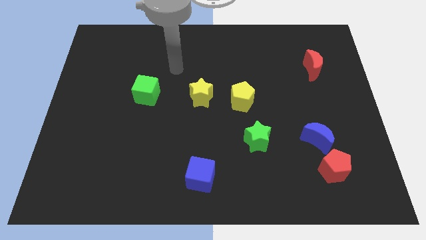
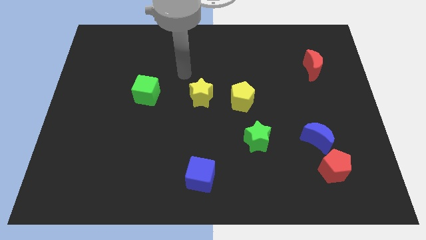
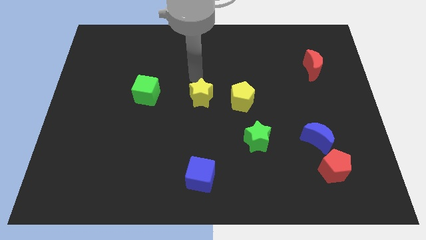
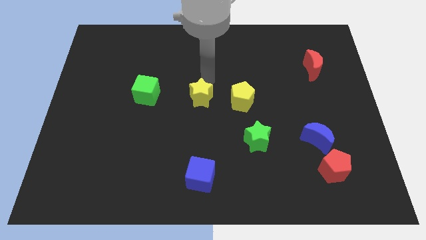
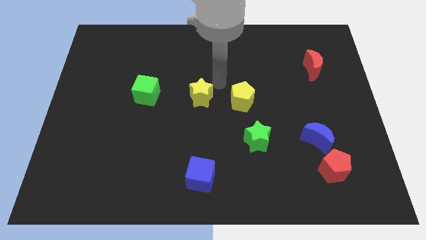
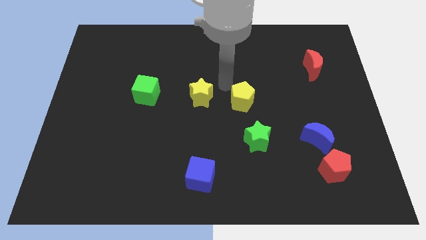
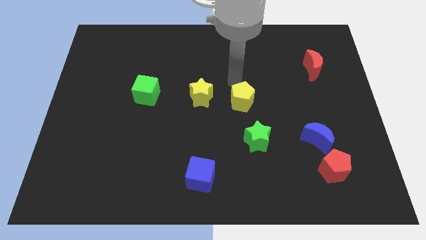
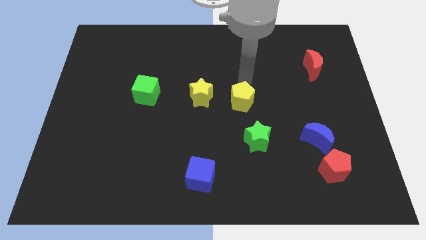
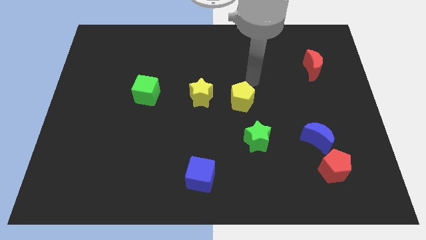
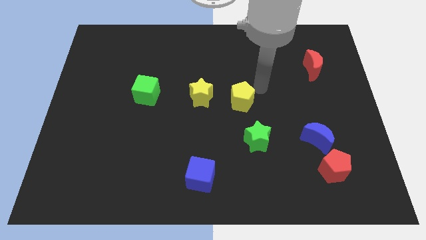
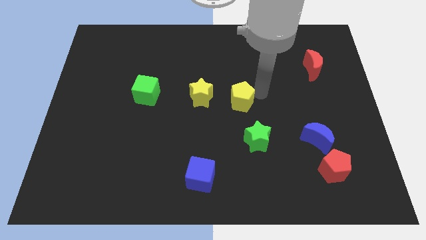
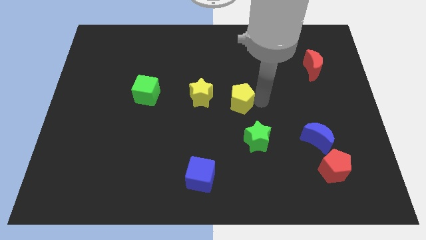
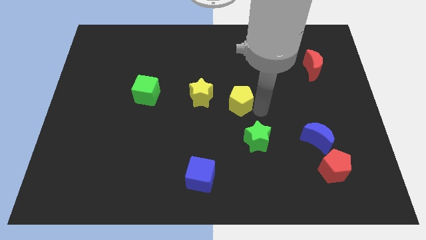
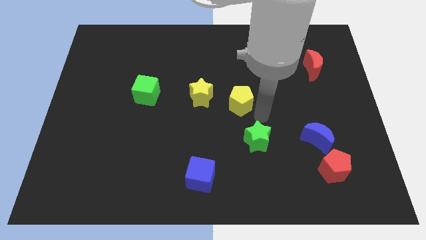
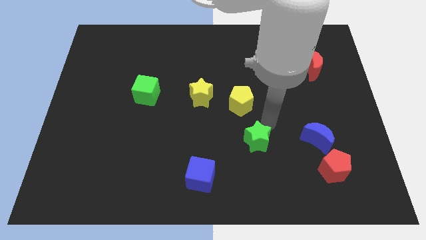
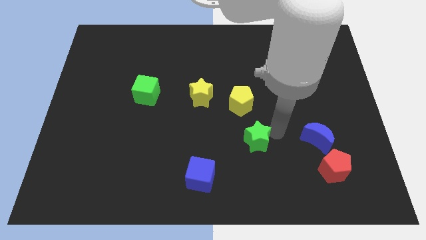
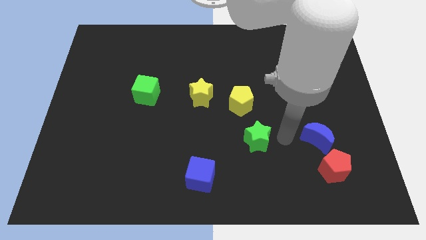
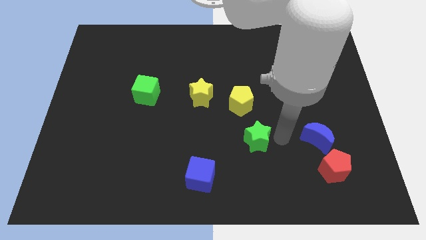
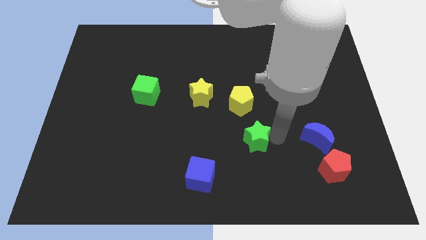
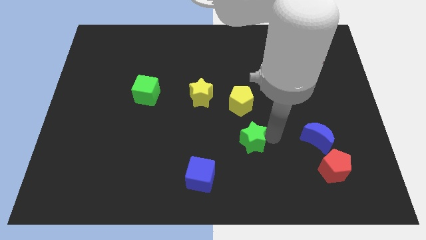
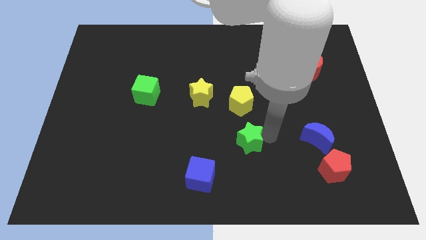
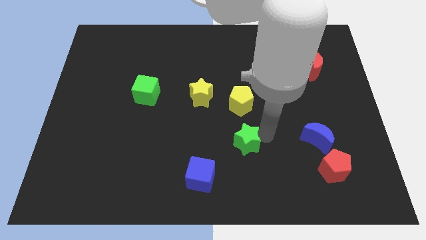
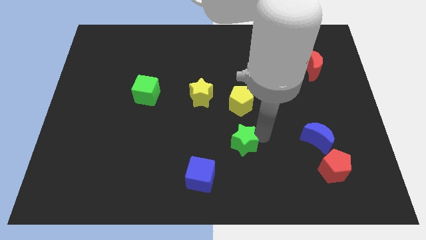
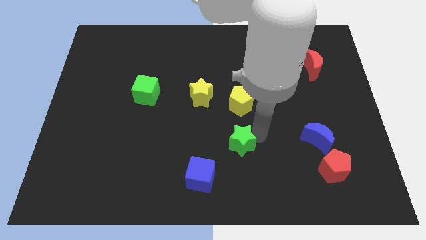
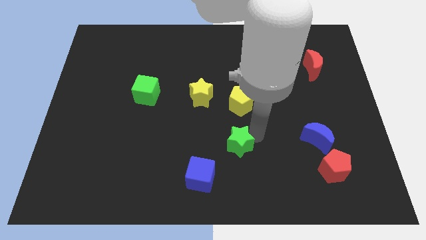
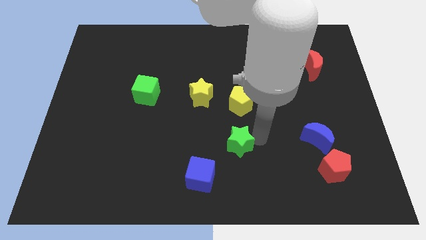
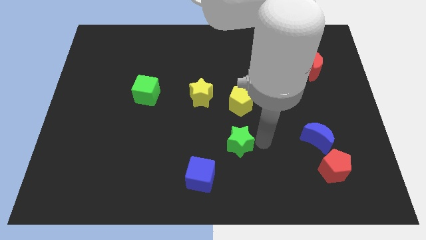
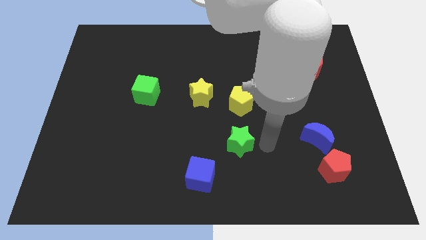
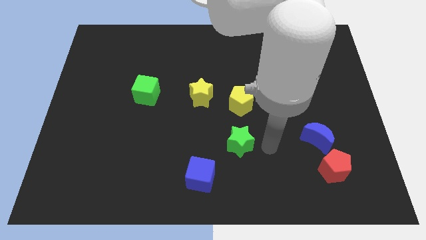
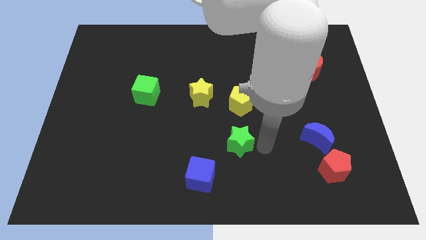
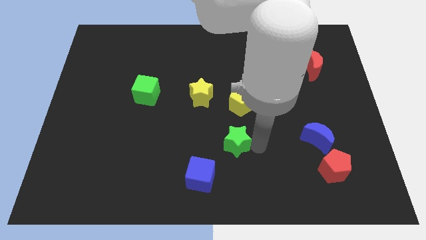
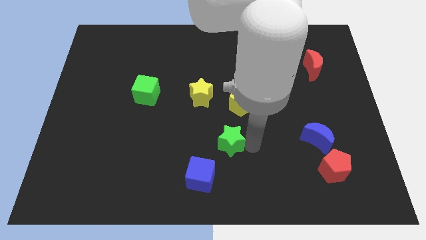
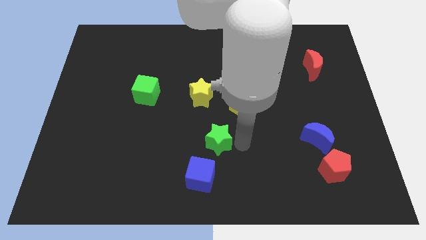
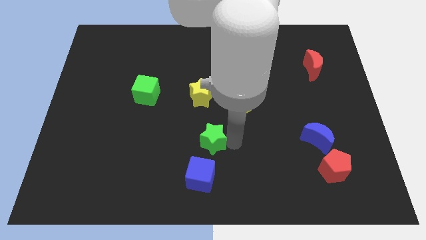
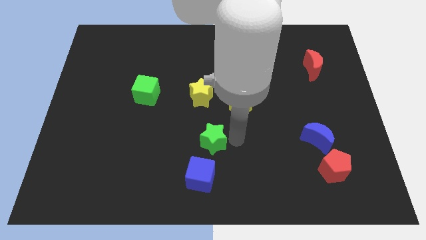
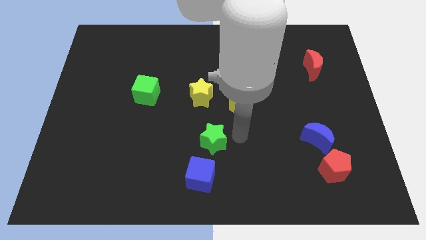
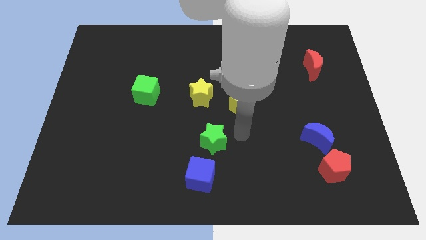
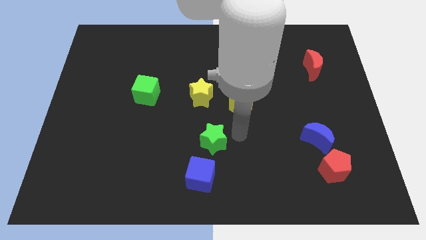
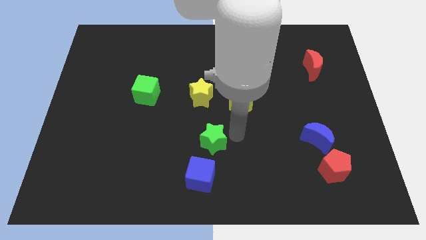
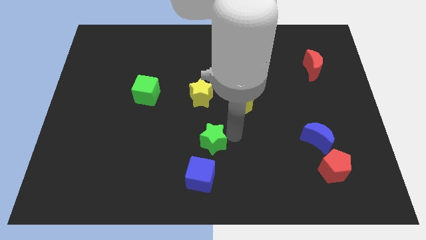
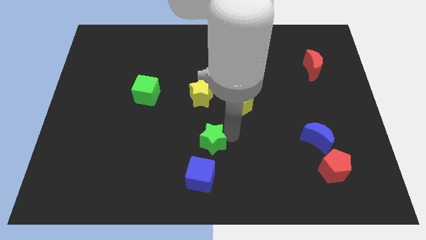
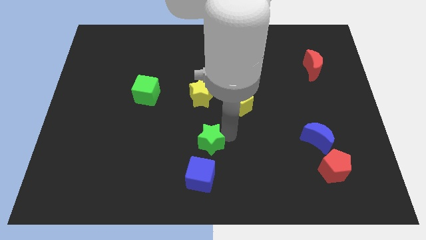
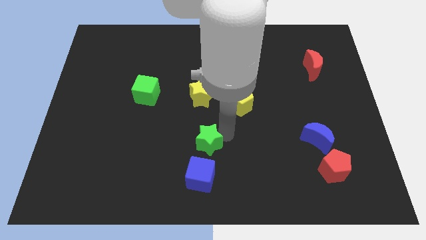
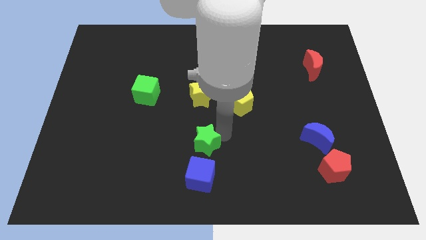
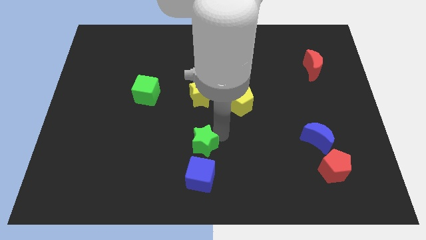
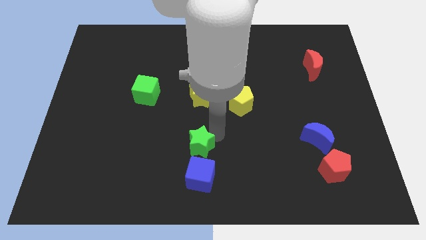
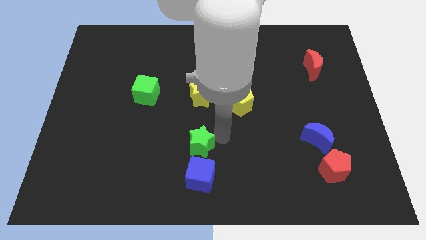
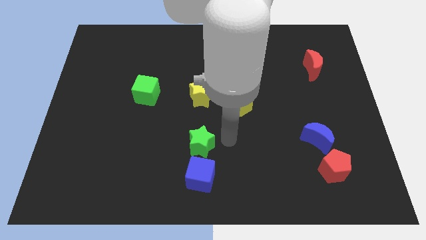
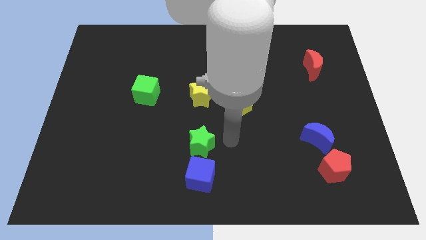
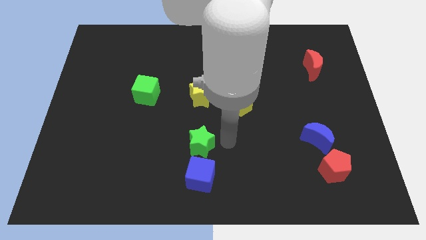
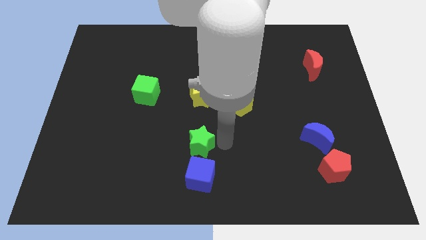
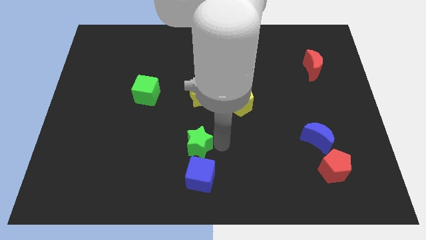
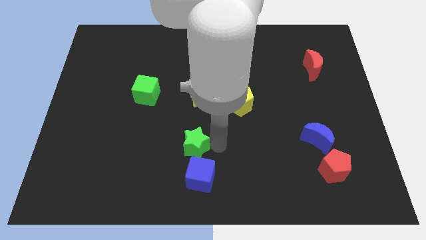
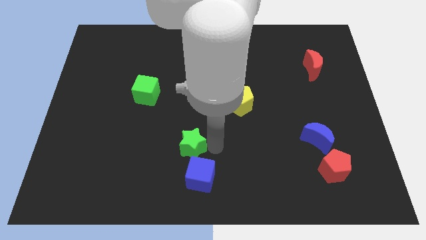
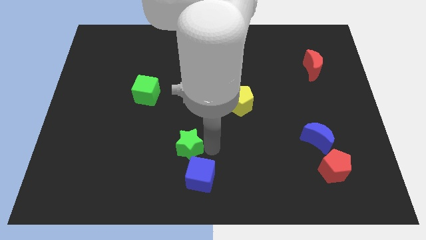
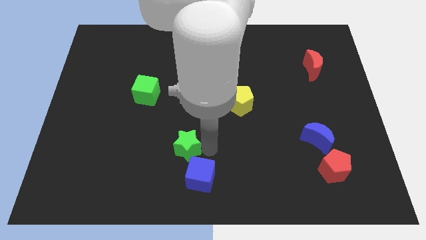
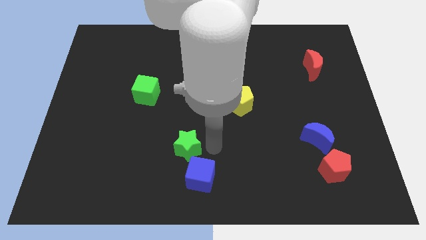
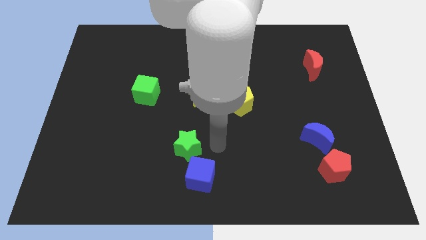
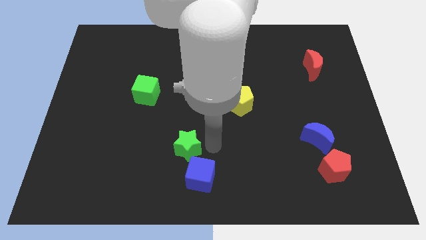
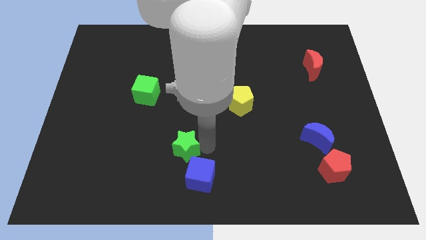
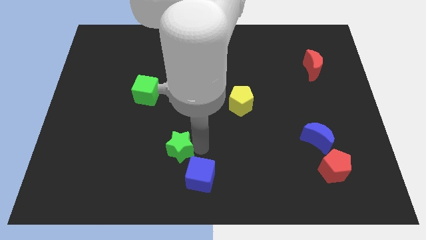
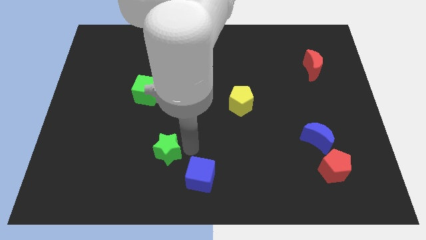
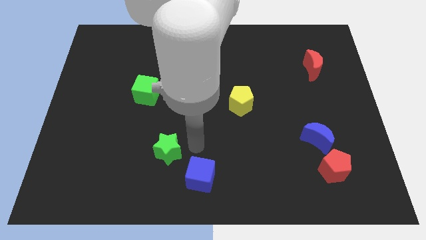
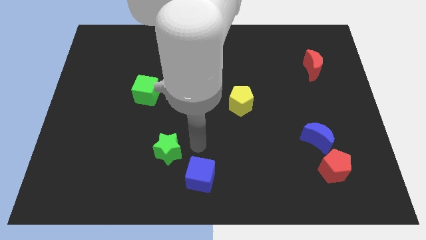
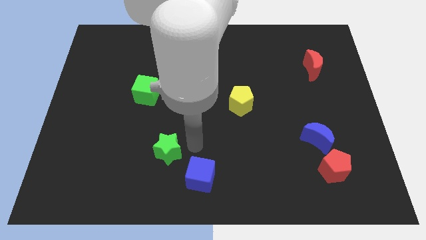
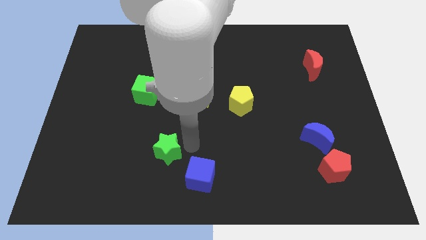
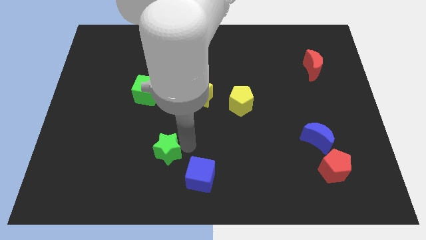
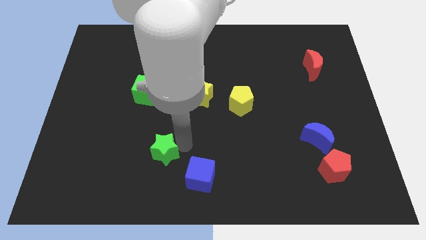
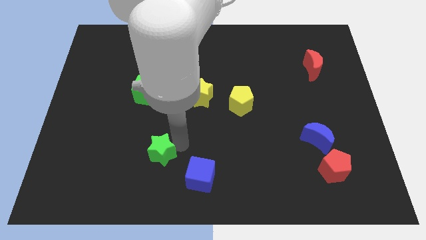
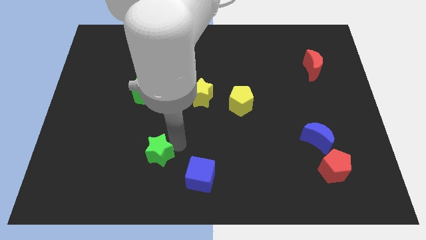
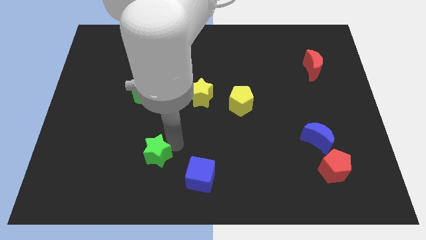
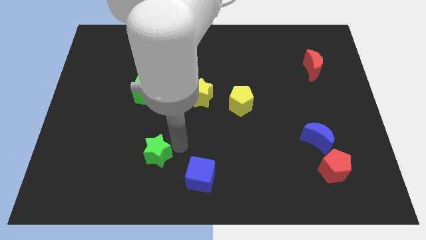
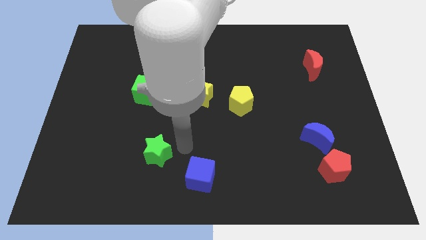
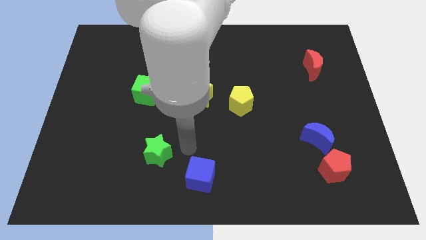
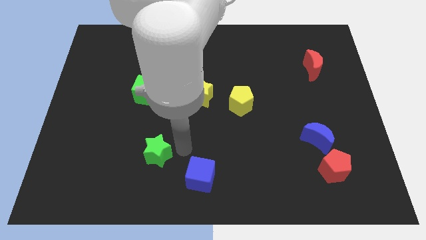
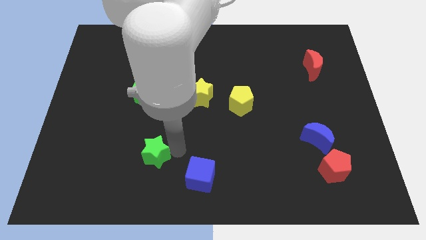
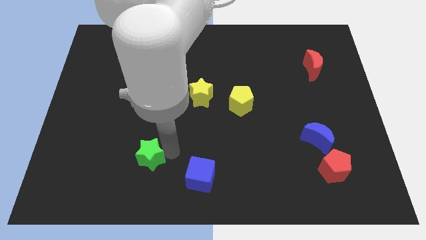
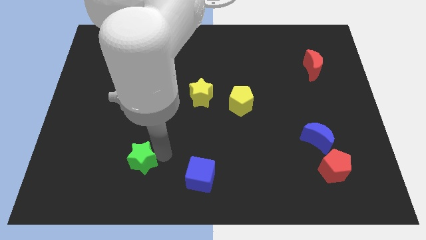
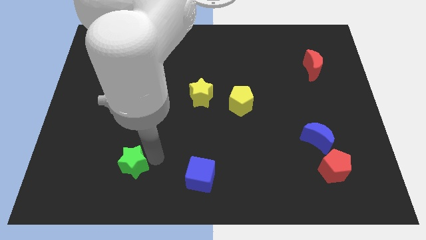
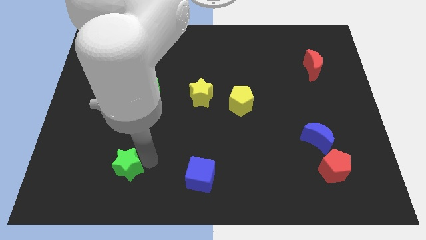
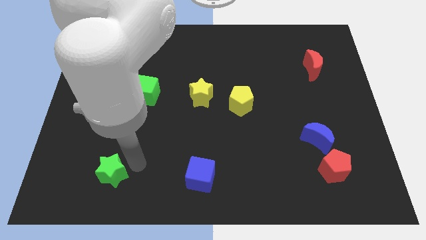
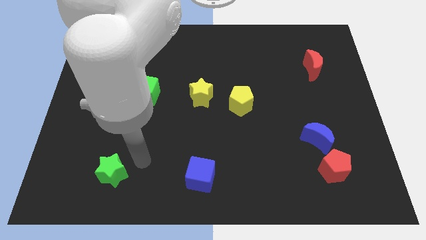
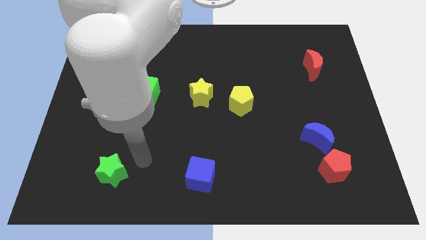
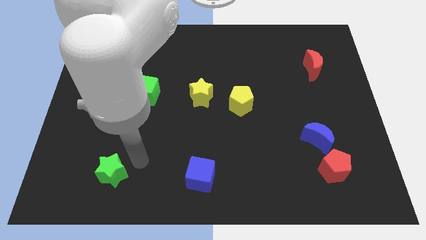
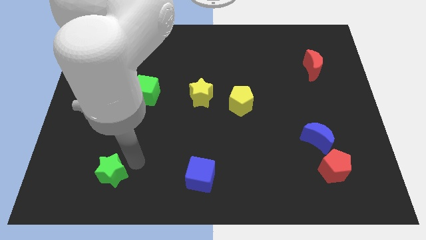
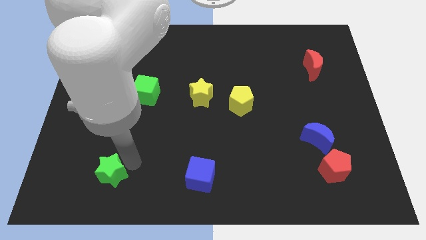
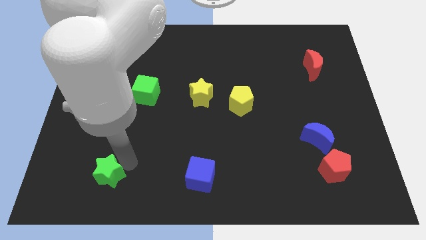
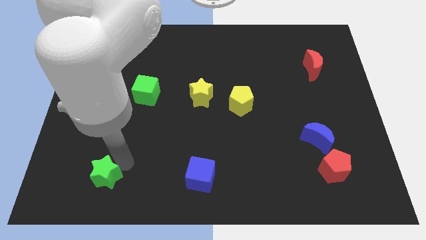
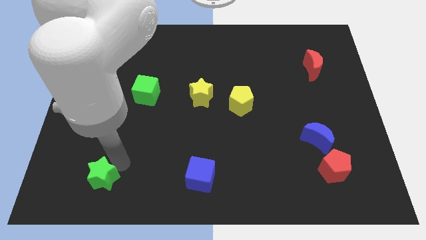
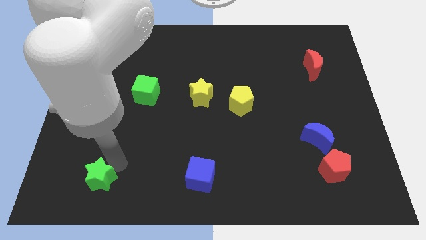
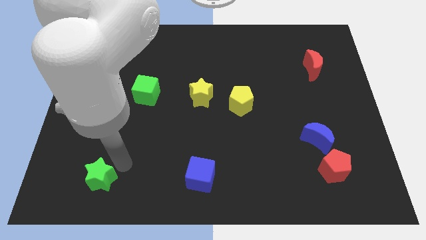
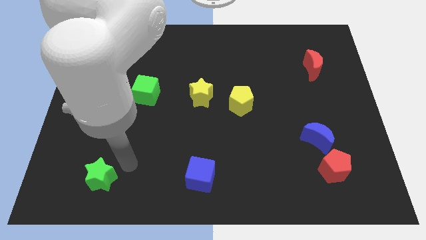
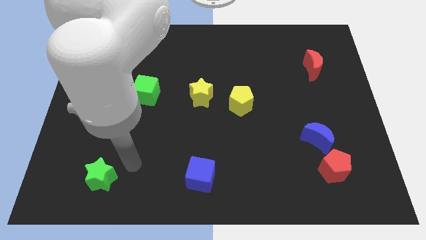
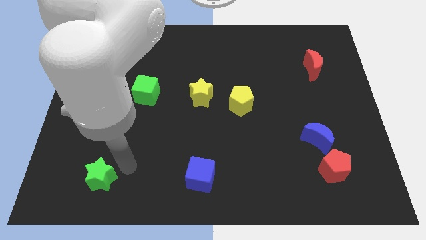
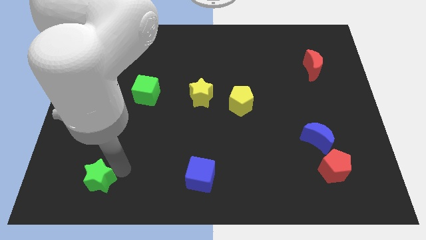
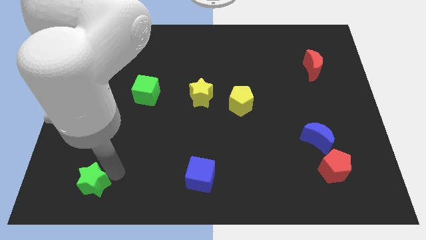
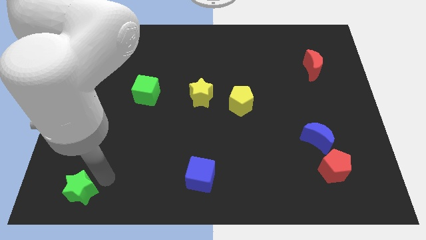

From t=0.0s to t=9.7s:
slide the green star to the bottom left of the board
